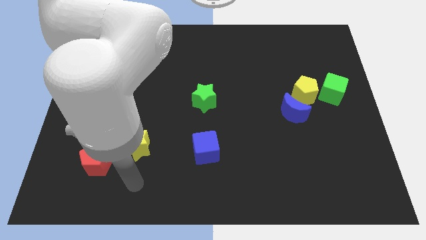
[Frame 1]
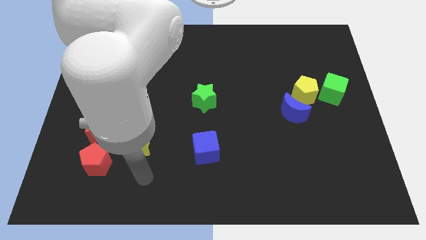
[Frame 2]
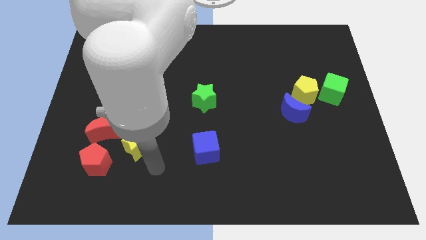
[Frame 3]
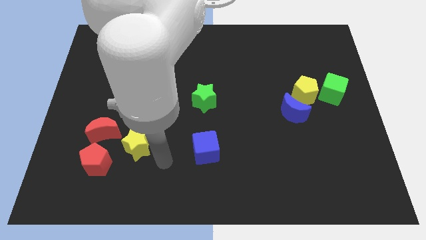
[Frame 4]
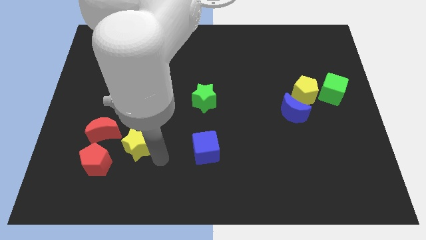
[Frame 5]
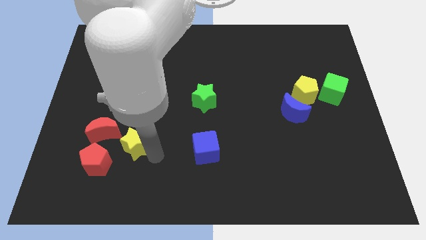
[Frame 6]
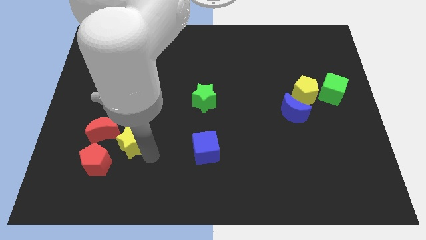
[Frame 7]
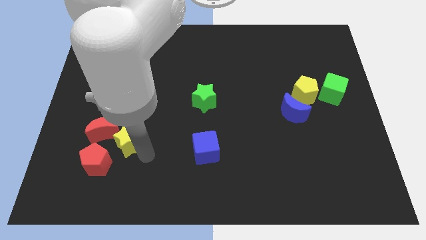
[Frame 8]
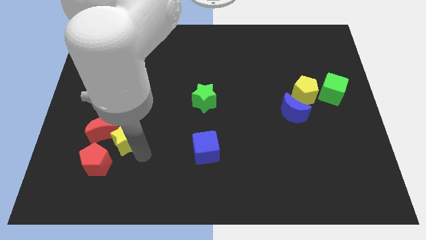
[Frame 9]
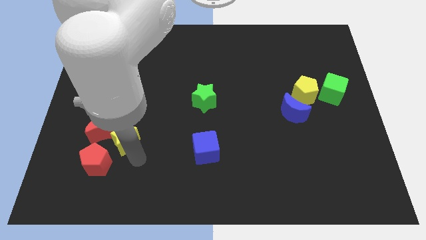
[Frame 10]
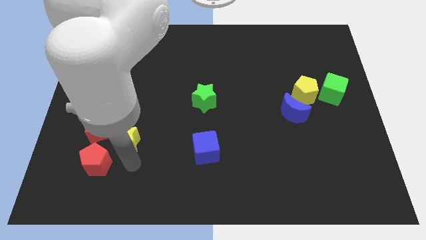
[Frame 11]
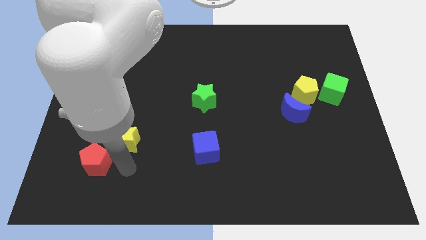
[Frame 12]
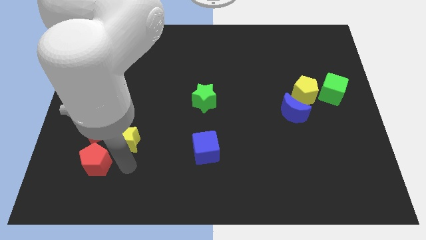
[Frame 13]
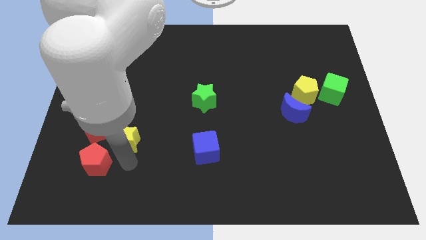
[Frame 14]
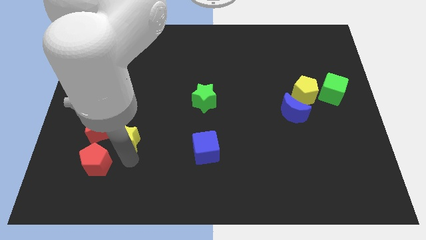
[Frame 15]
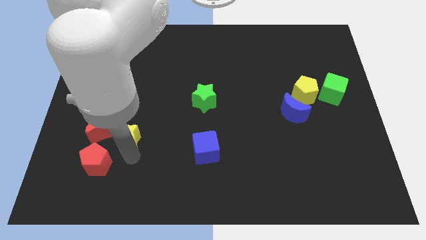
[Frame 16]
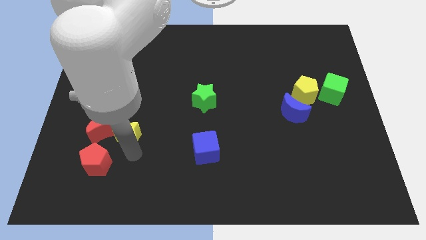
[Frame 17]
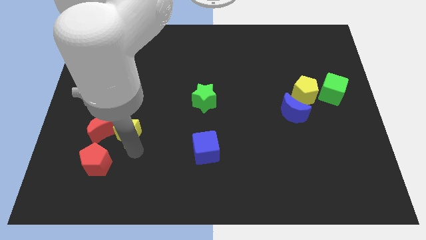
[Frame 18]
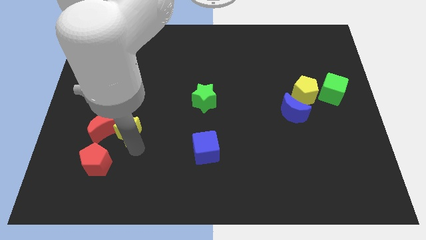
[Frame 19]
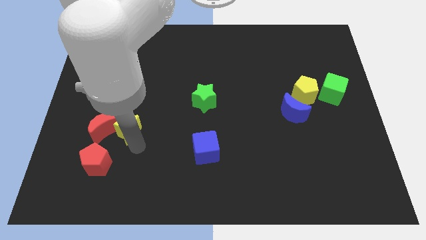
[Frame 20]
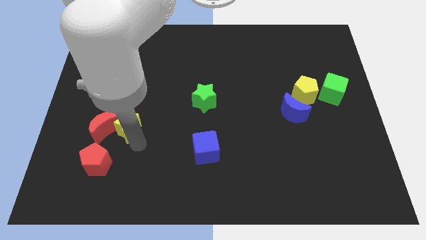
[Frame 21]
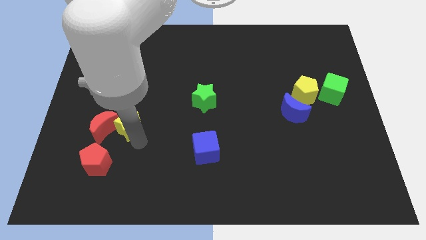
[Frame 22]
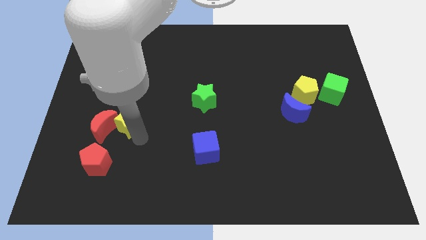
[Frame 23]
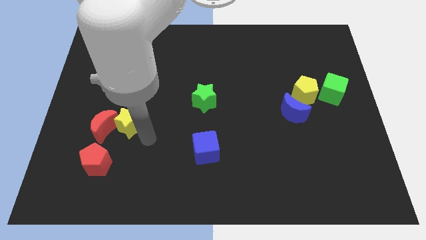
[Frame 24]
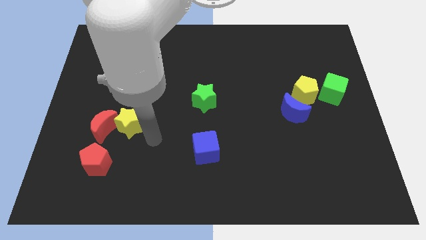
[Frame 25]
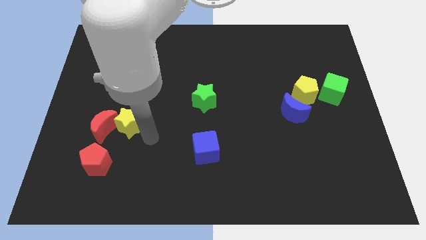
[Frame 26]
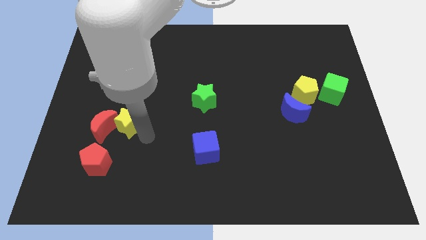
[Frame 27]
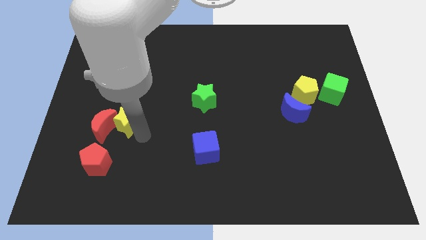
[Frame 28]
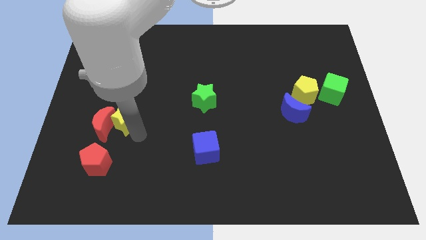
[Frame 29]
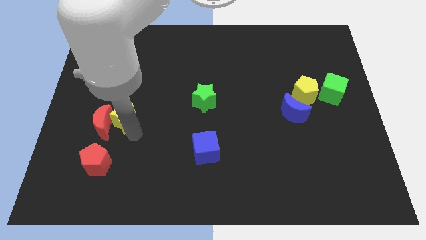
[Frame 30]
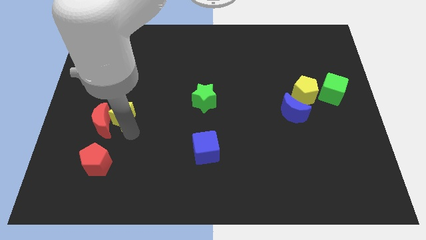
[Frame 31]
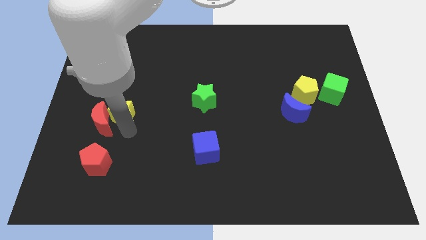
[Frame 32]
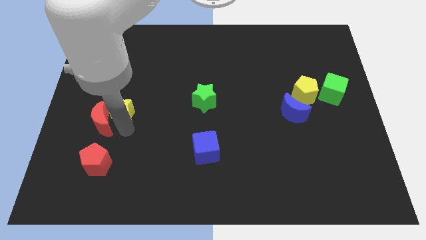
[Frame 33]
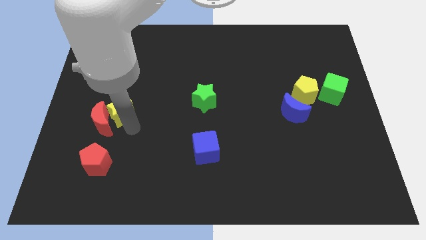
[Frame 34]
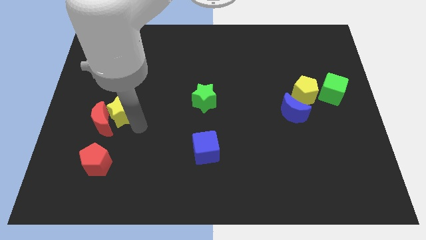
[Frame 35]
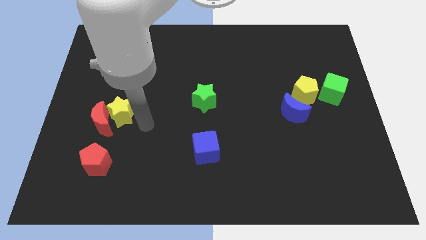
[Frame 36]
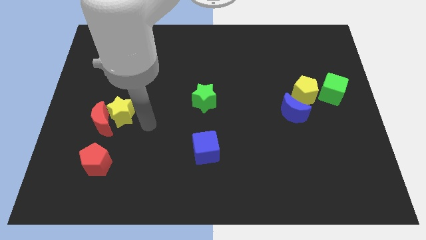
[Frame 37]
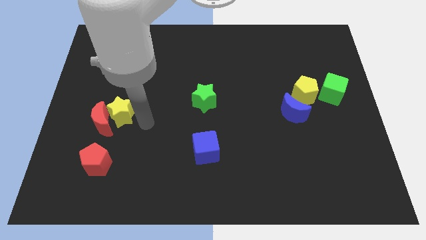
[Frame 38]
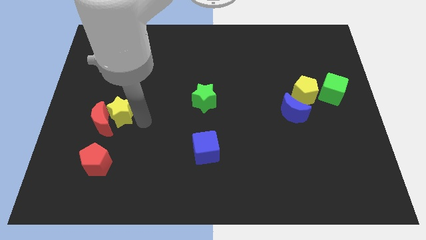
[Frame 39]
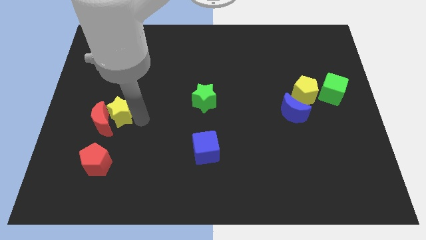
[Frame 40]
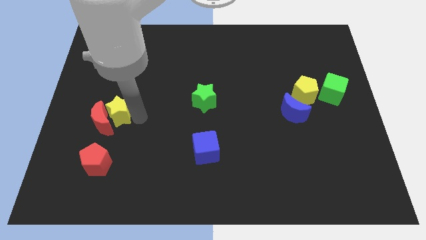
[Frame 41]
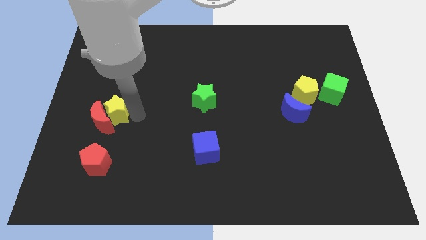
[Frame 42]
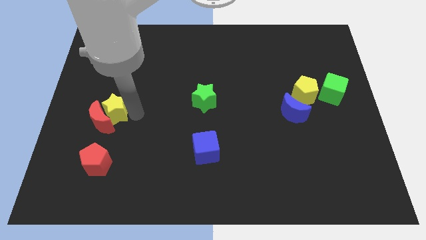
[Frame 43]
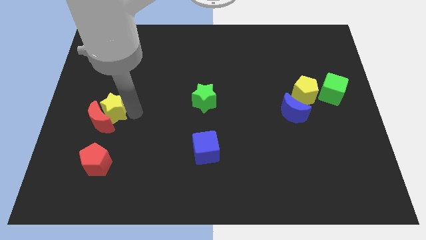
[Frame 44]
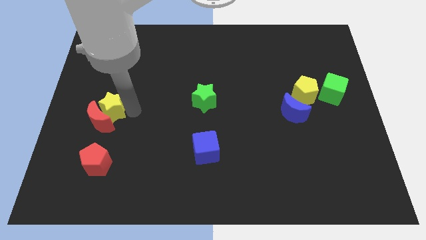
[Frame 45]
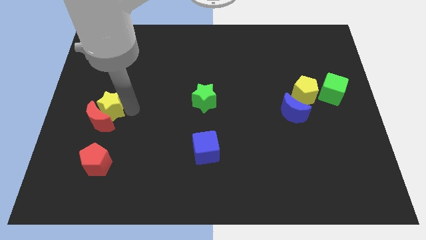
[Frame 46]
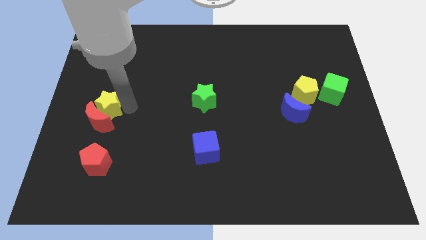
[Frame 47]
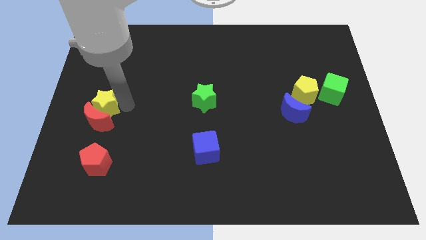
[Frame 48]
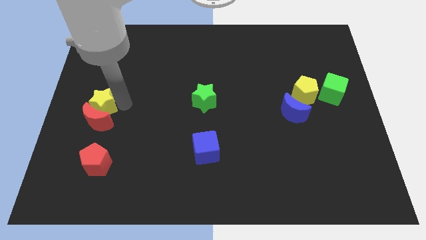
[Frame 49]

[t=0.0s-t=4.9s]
move the yellow star to the left side of the board

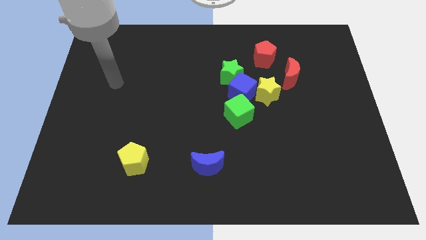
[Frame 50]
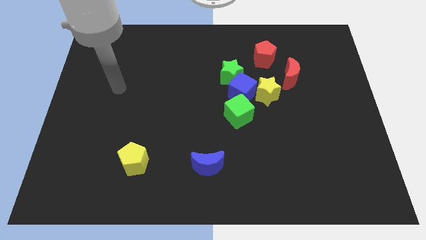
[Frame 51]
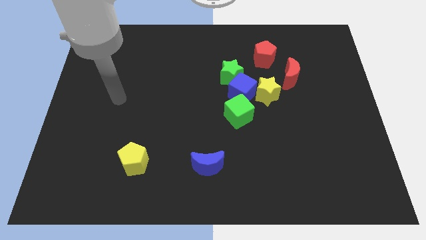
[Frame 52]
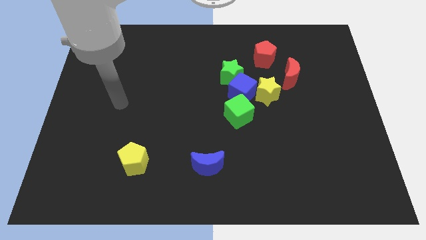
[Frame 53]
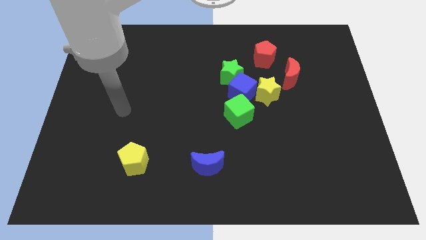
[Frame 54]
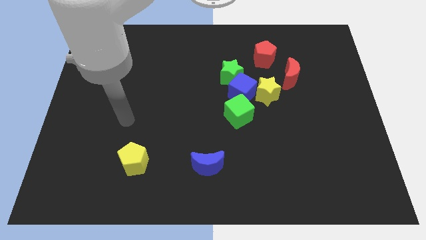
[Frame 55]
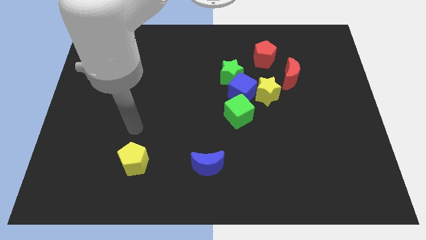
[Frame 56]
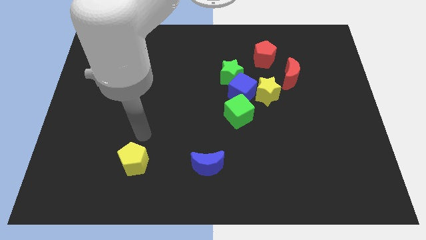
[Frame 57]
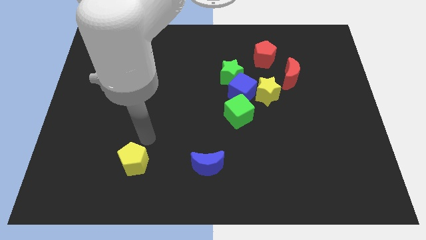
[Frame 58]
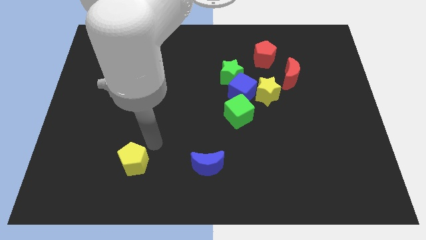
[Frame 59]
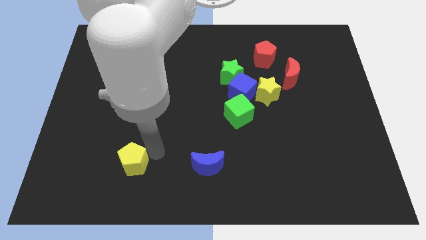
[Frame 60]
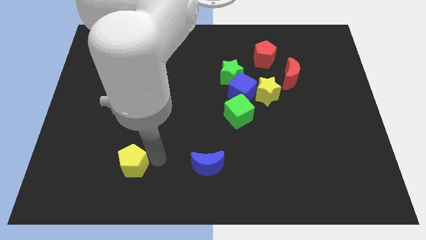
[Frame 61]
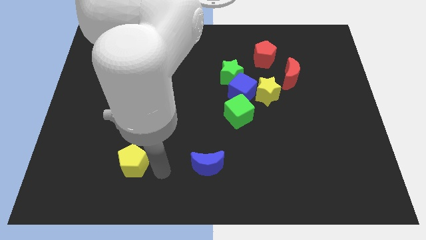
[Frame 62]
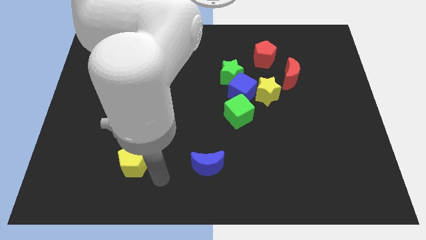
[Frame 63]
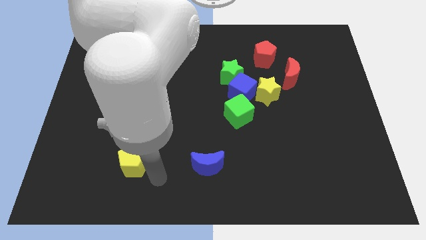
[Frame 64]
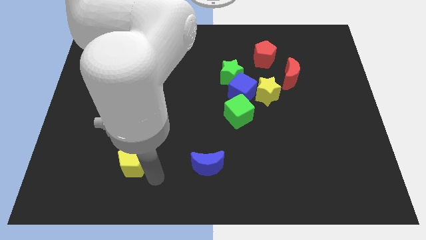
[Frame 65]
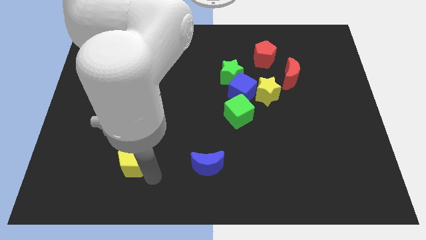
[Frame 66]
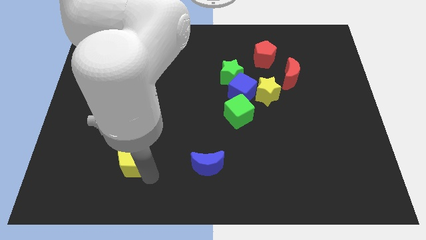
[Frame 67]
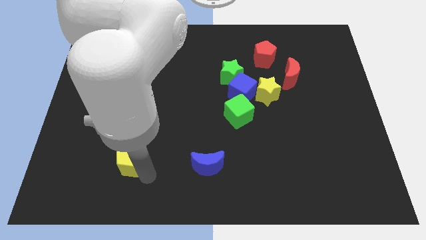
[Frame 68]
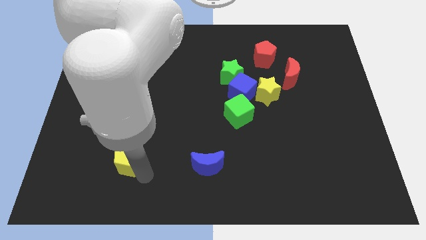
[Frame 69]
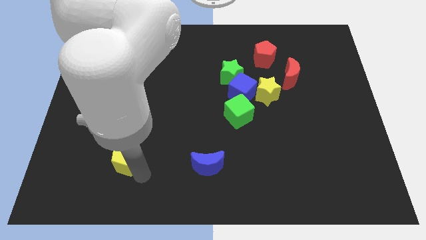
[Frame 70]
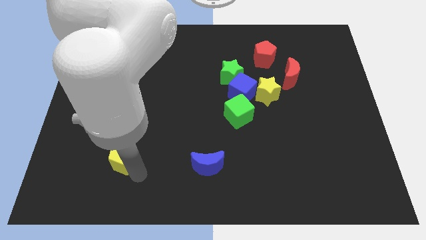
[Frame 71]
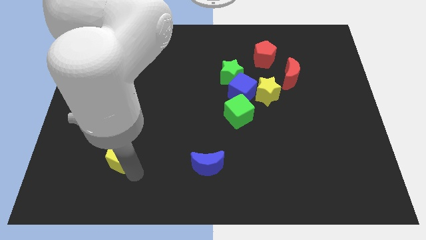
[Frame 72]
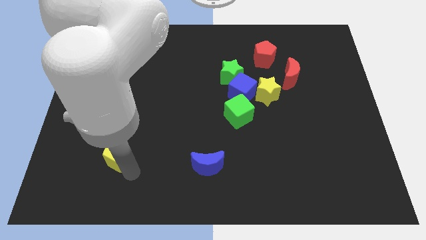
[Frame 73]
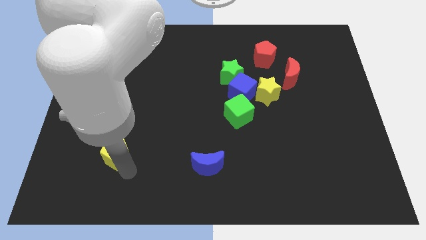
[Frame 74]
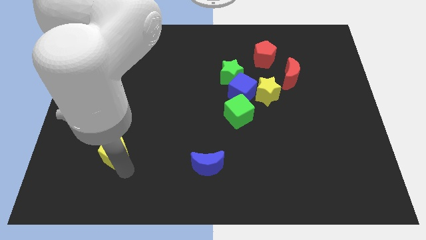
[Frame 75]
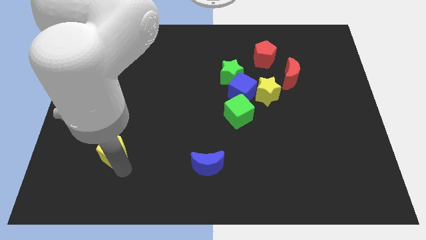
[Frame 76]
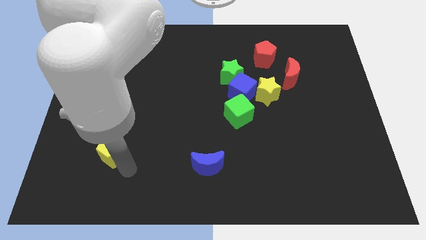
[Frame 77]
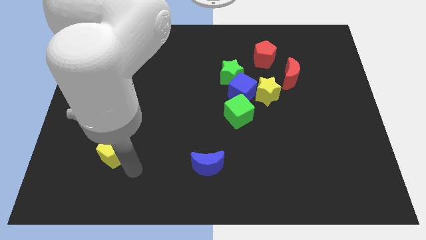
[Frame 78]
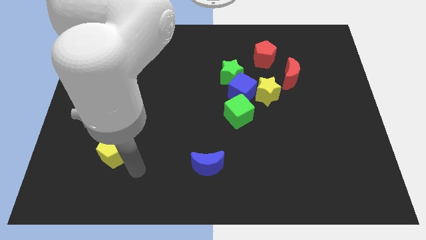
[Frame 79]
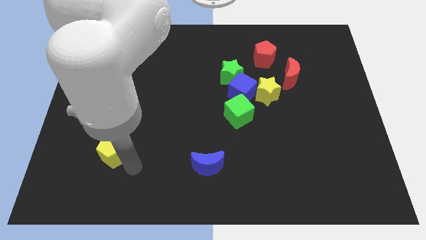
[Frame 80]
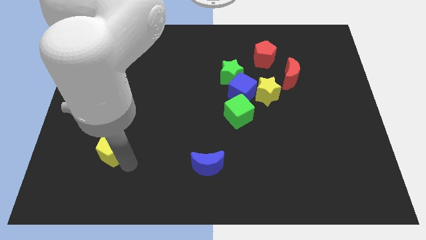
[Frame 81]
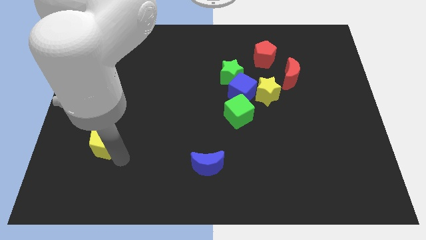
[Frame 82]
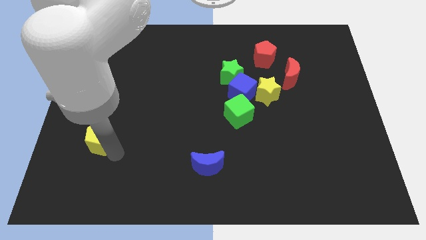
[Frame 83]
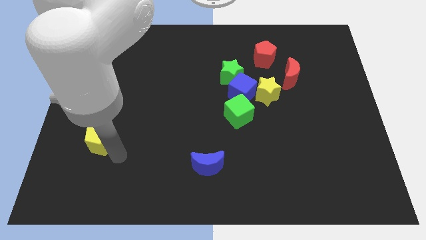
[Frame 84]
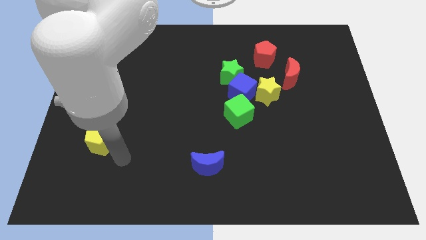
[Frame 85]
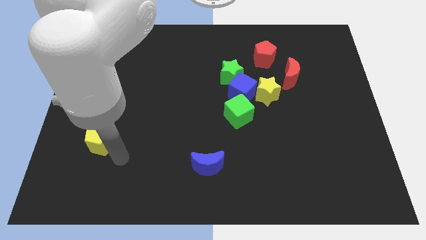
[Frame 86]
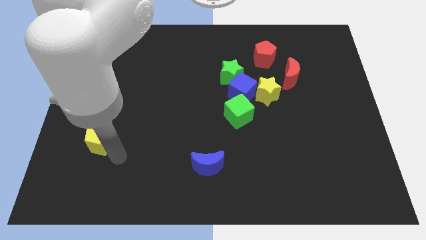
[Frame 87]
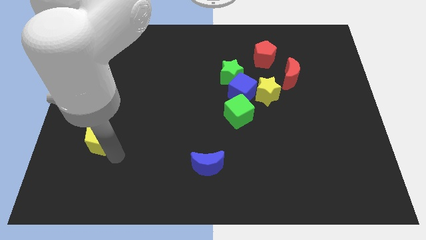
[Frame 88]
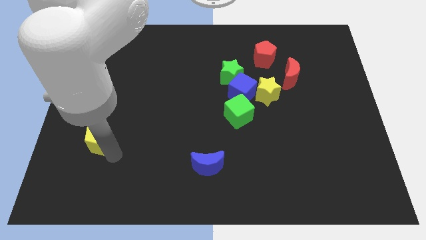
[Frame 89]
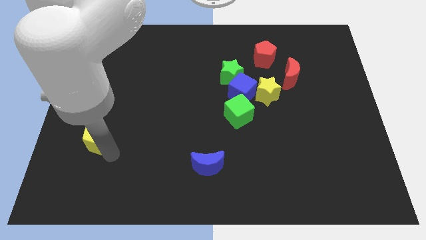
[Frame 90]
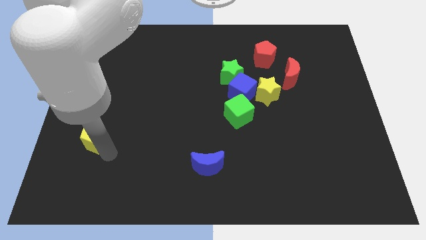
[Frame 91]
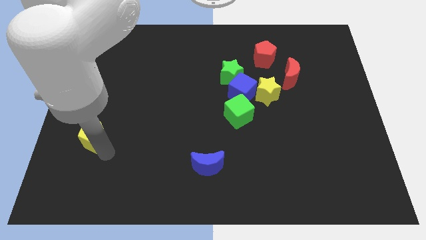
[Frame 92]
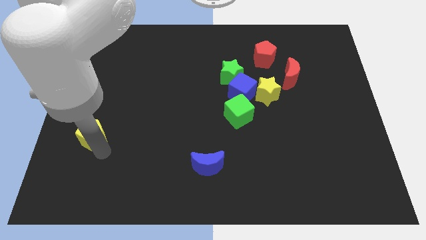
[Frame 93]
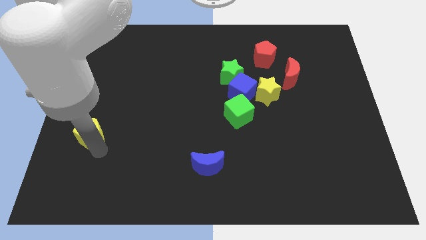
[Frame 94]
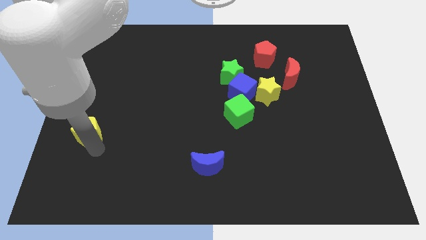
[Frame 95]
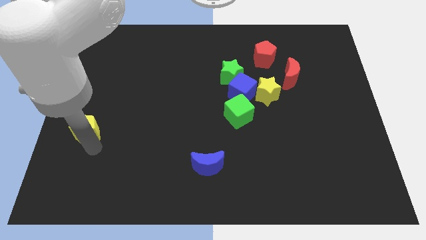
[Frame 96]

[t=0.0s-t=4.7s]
put the yellow pentagon to the center left
